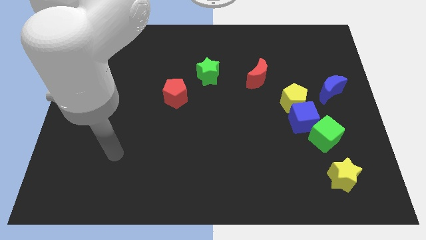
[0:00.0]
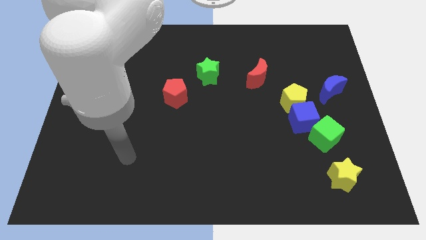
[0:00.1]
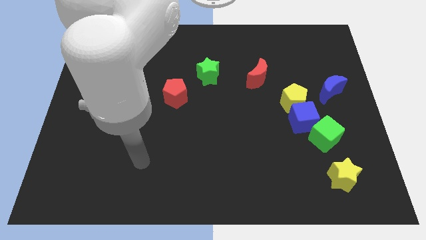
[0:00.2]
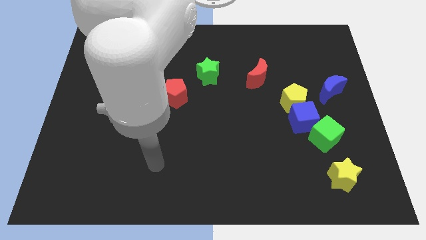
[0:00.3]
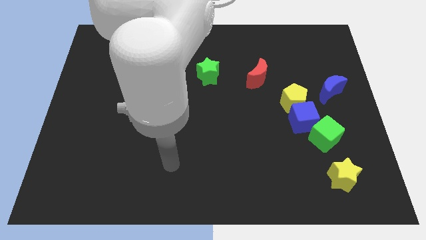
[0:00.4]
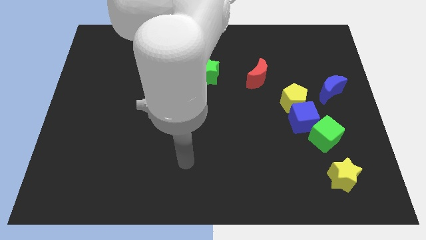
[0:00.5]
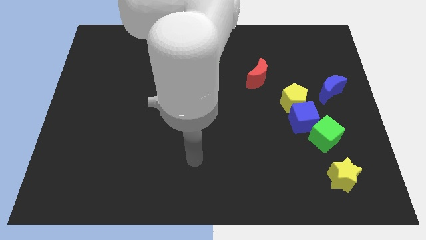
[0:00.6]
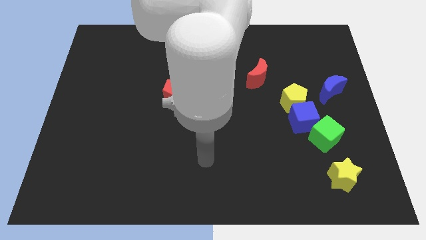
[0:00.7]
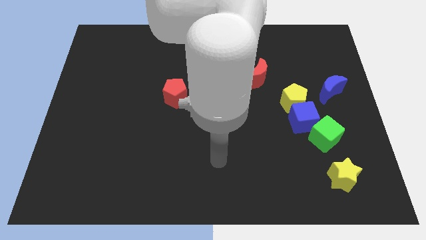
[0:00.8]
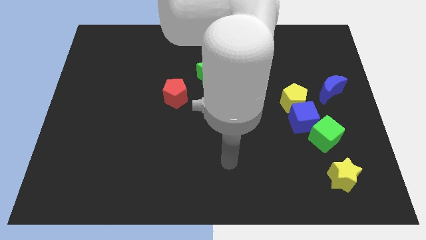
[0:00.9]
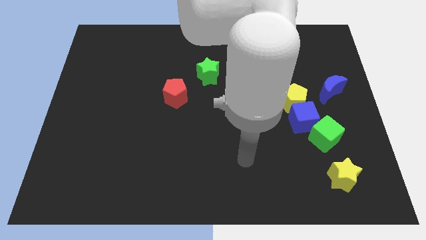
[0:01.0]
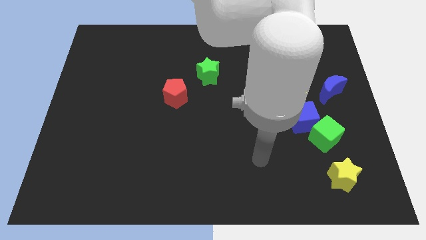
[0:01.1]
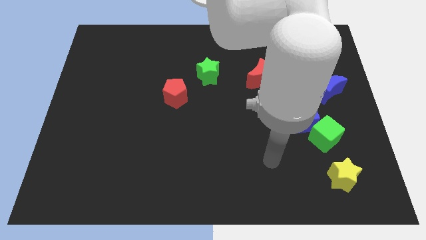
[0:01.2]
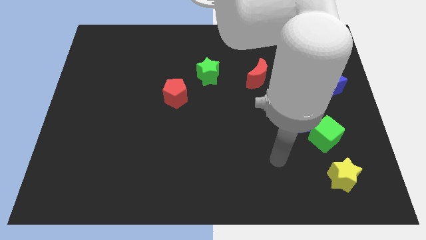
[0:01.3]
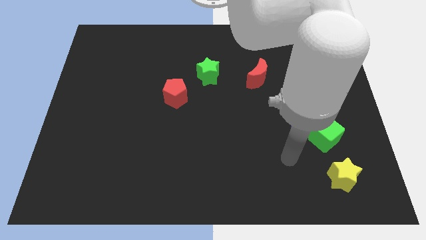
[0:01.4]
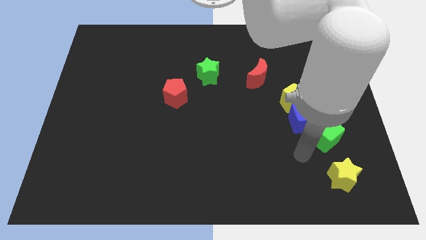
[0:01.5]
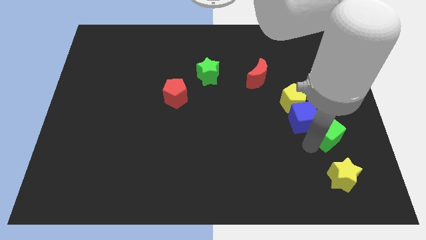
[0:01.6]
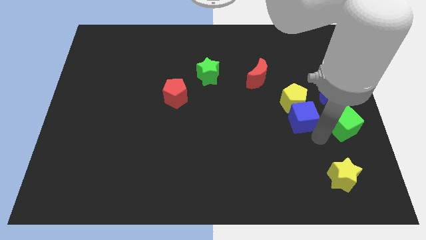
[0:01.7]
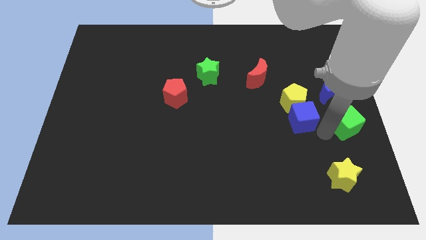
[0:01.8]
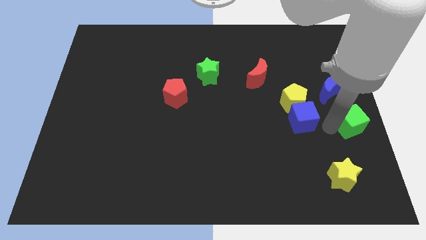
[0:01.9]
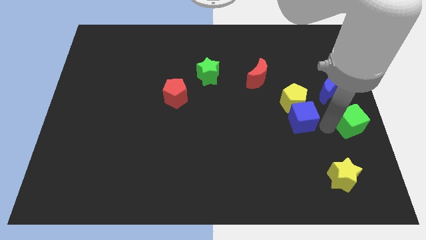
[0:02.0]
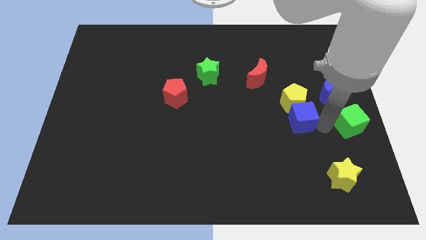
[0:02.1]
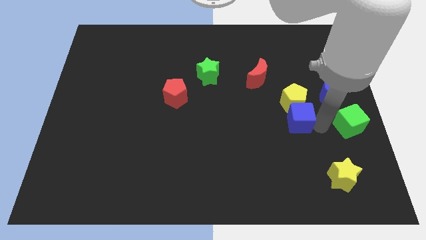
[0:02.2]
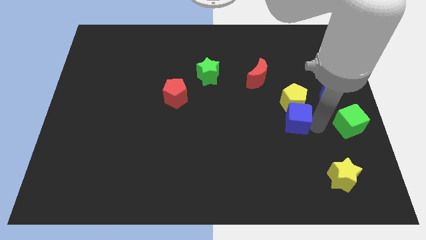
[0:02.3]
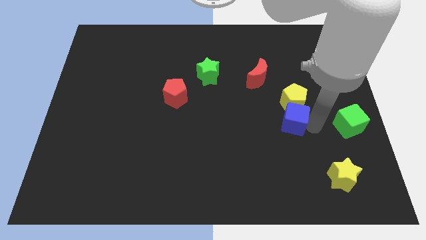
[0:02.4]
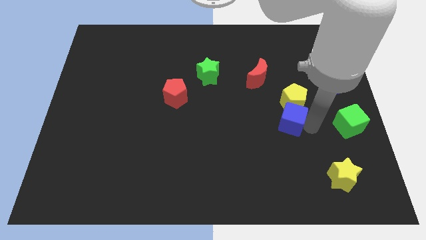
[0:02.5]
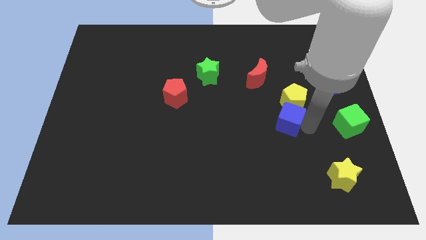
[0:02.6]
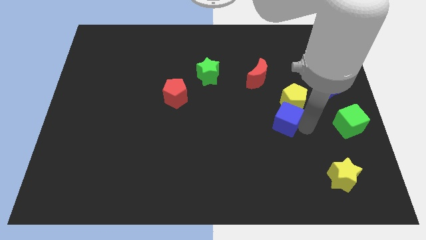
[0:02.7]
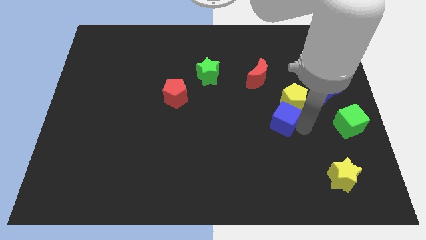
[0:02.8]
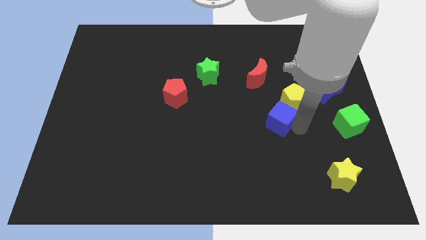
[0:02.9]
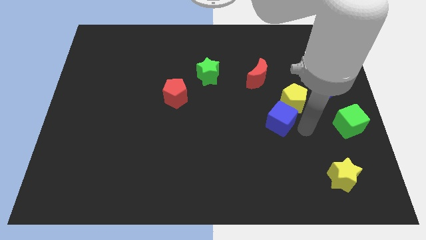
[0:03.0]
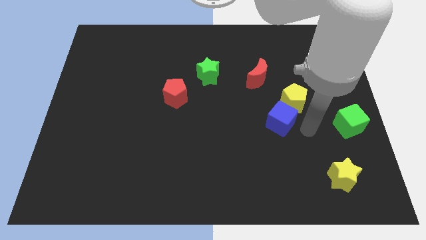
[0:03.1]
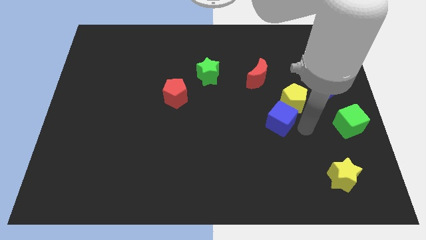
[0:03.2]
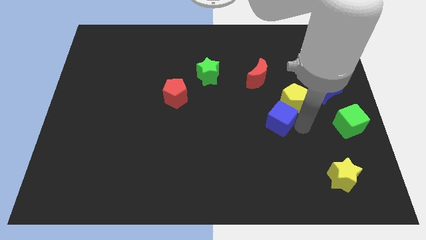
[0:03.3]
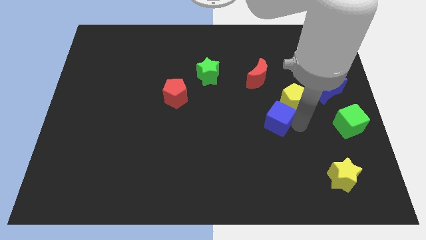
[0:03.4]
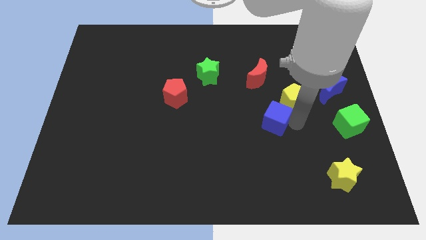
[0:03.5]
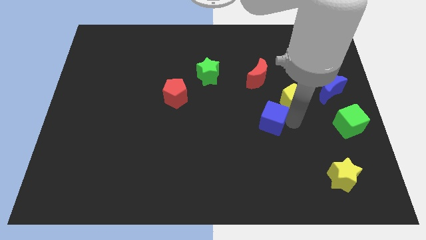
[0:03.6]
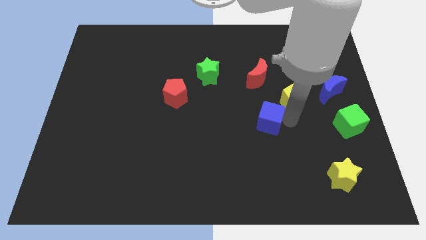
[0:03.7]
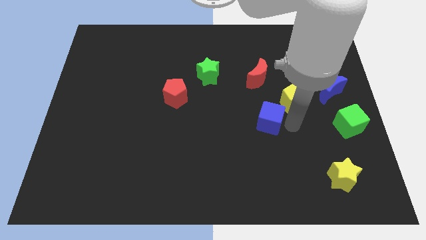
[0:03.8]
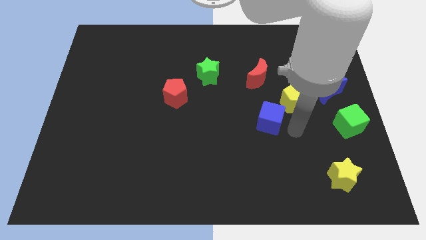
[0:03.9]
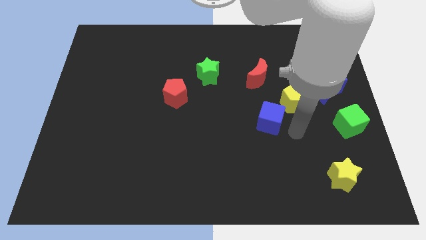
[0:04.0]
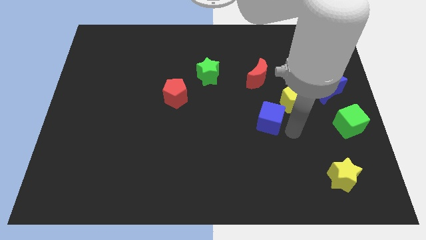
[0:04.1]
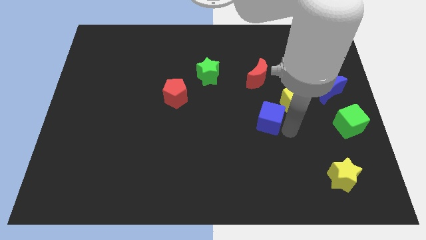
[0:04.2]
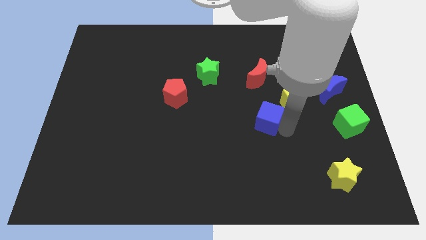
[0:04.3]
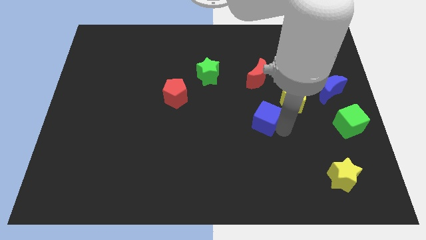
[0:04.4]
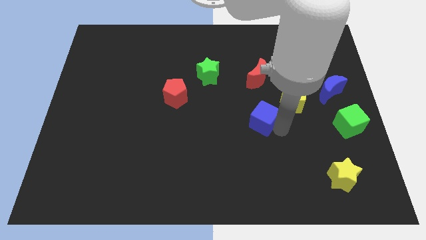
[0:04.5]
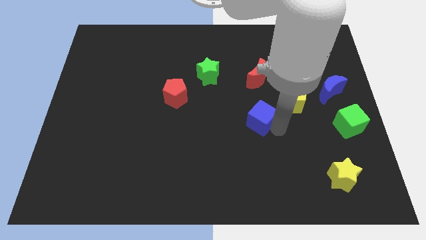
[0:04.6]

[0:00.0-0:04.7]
slide the blue cube to the center of the board

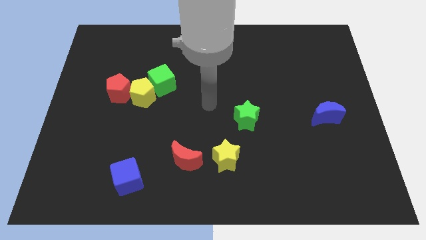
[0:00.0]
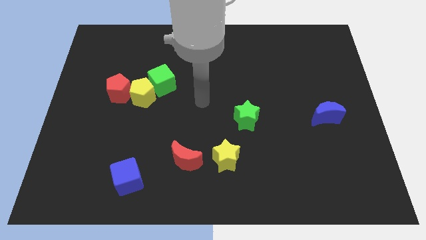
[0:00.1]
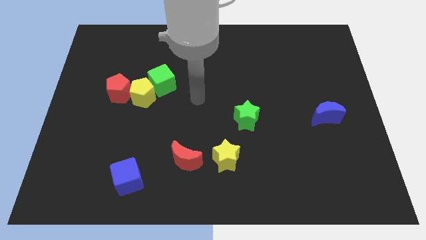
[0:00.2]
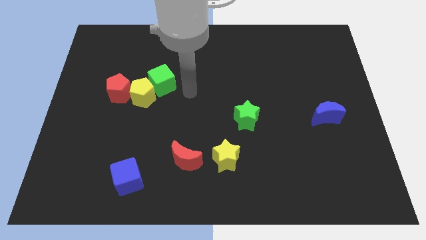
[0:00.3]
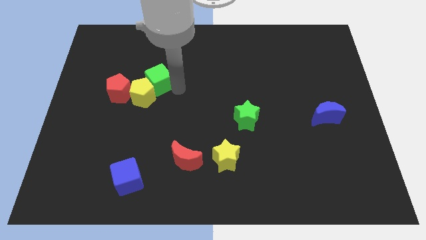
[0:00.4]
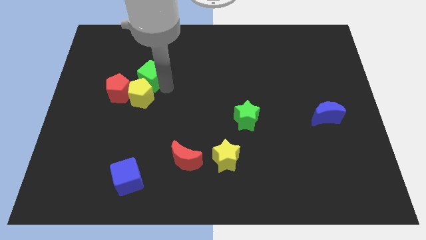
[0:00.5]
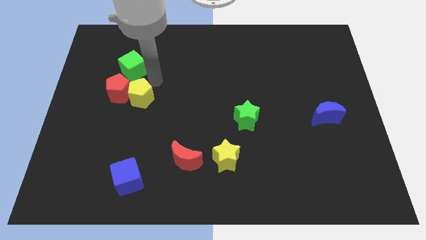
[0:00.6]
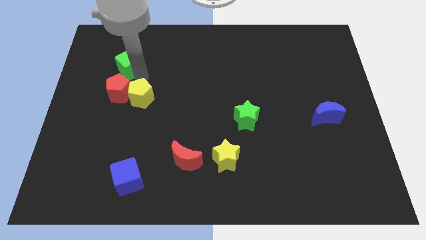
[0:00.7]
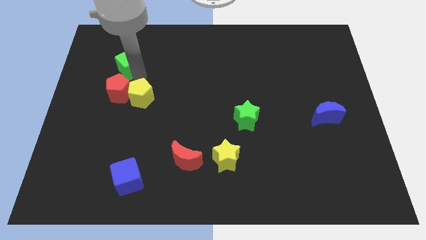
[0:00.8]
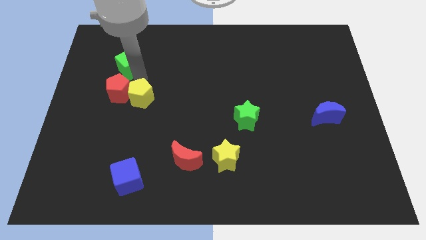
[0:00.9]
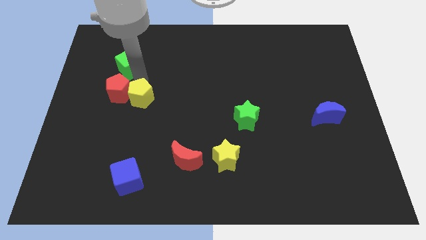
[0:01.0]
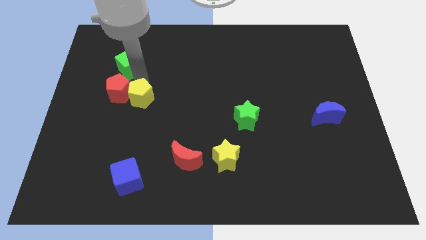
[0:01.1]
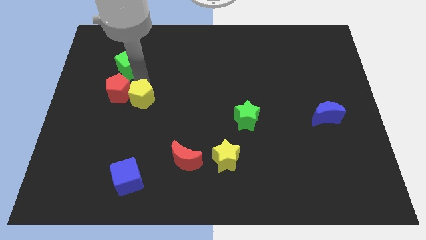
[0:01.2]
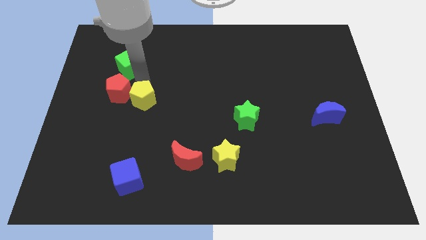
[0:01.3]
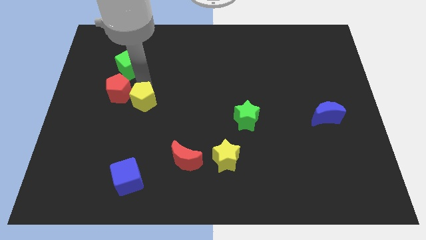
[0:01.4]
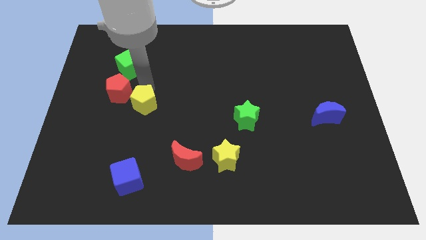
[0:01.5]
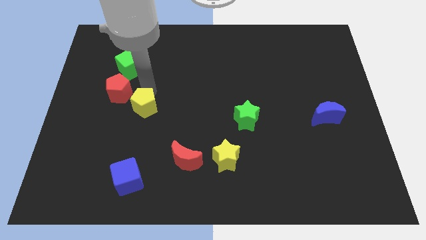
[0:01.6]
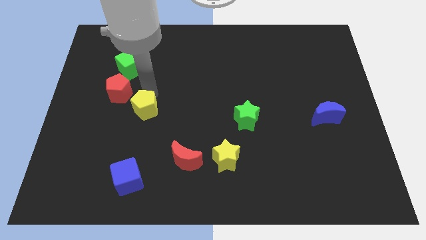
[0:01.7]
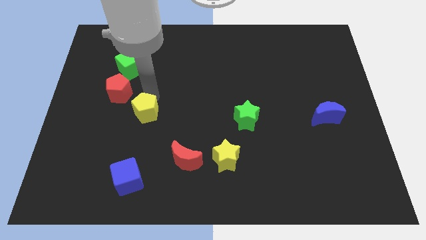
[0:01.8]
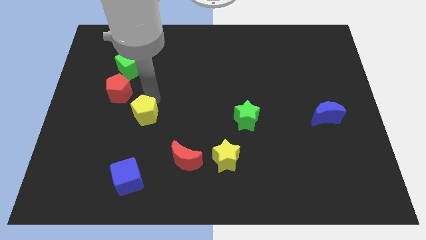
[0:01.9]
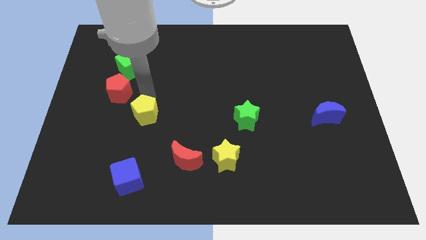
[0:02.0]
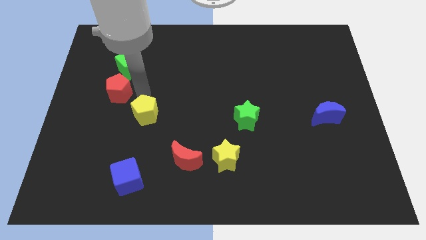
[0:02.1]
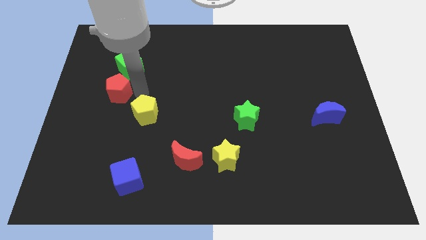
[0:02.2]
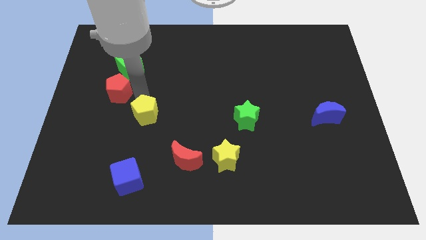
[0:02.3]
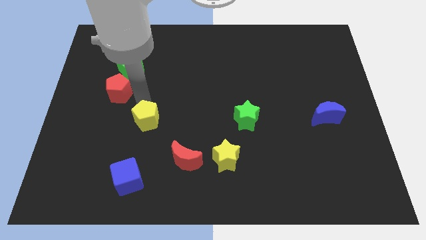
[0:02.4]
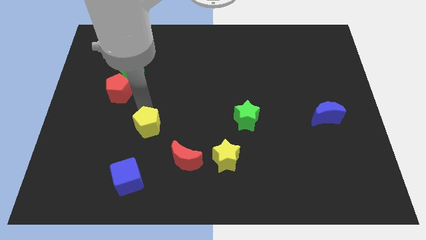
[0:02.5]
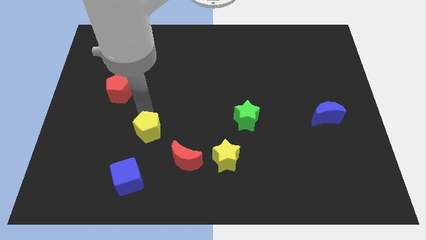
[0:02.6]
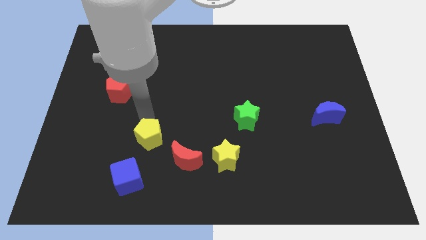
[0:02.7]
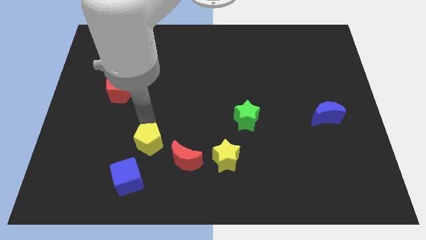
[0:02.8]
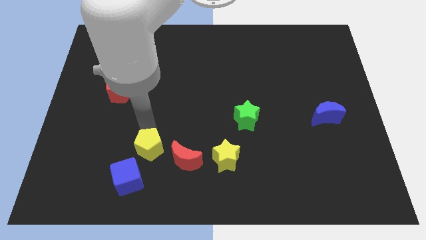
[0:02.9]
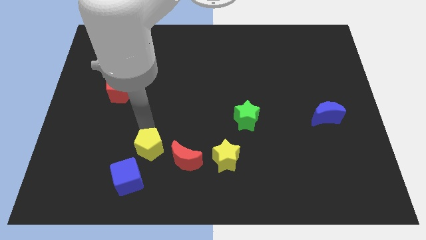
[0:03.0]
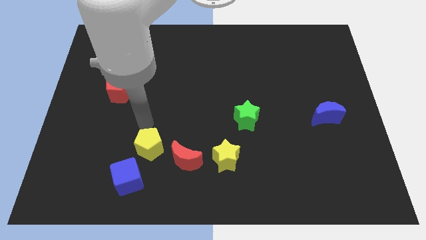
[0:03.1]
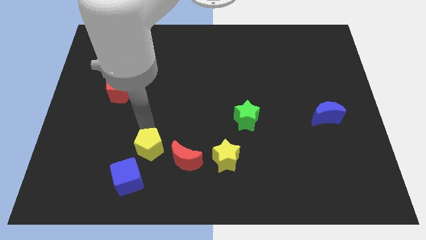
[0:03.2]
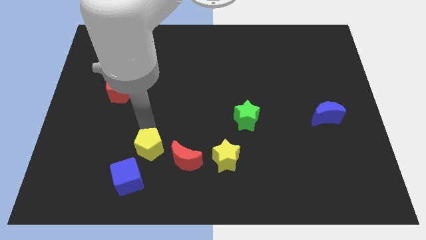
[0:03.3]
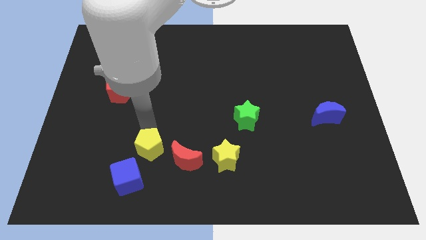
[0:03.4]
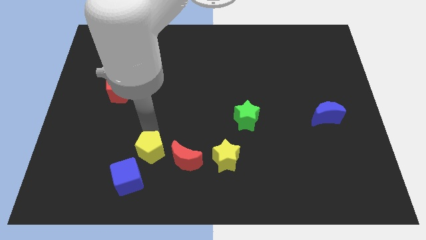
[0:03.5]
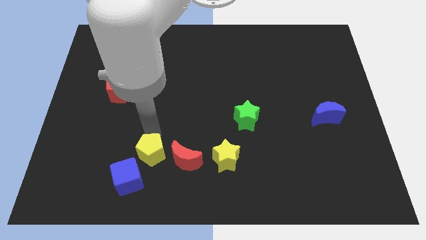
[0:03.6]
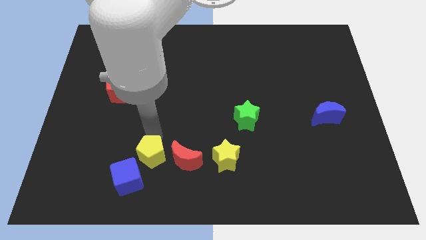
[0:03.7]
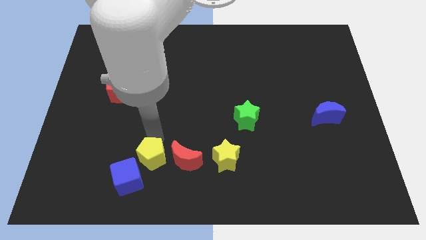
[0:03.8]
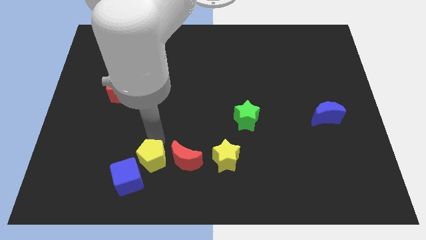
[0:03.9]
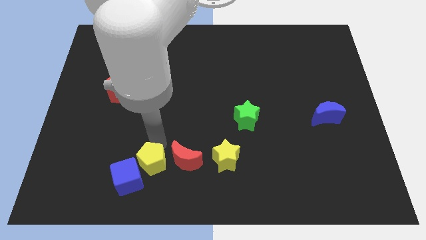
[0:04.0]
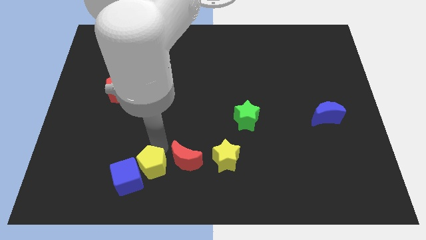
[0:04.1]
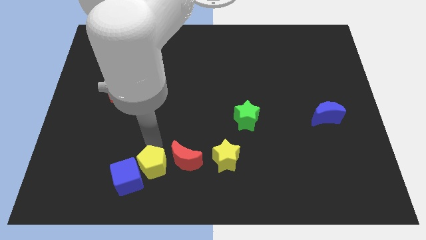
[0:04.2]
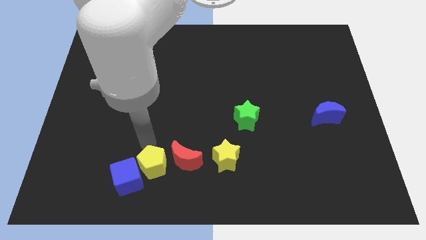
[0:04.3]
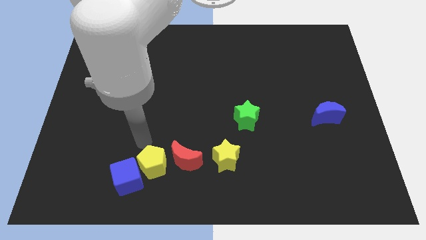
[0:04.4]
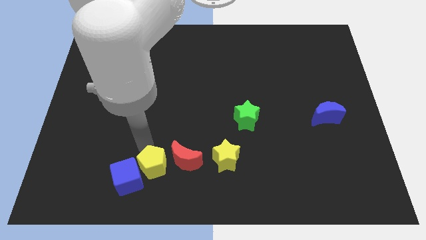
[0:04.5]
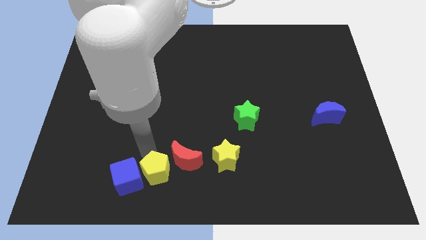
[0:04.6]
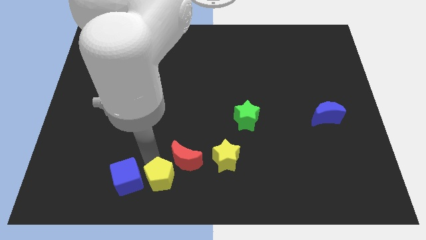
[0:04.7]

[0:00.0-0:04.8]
push the yellow pentagon to the bottom side
